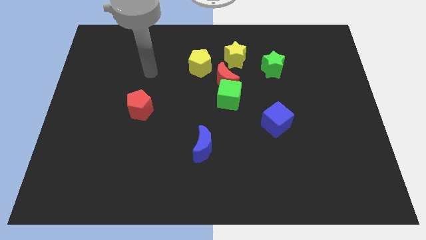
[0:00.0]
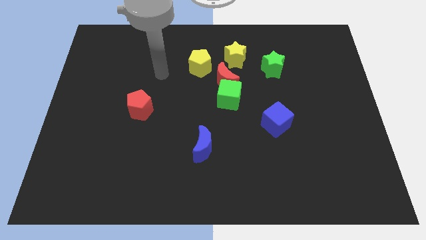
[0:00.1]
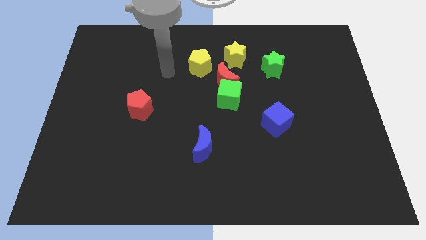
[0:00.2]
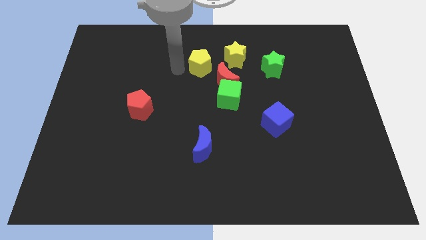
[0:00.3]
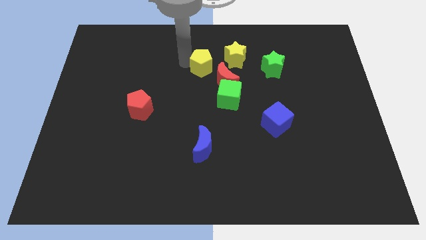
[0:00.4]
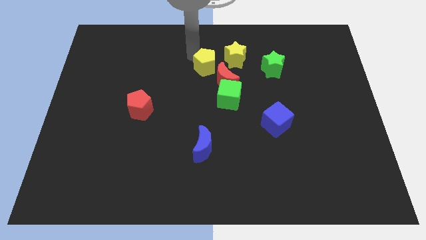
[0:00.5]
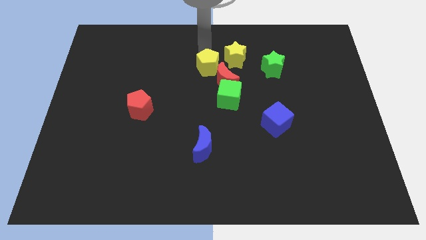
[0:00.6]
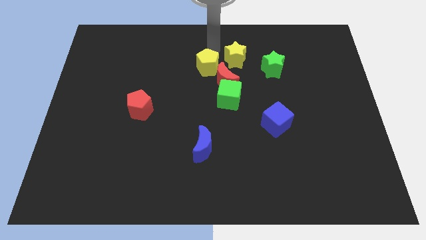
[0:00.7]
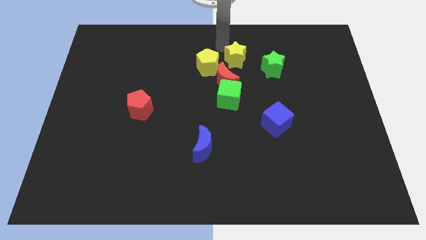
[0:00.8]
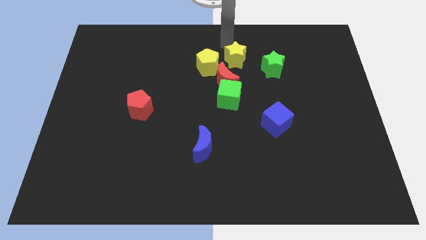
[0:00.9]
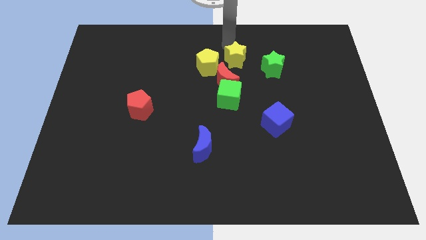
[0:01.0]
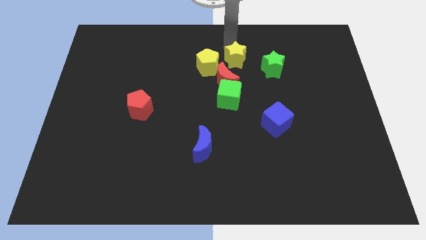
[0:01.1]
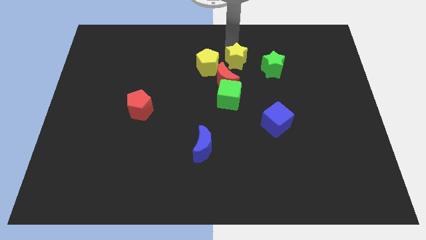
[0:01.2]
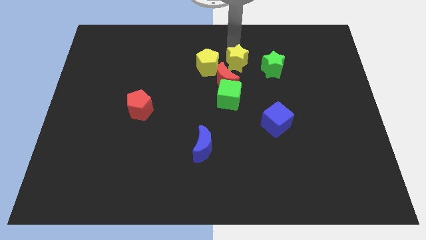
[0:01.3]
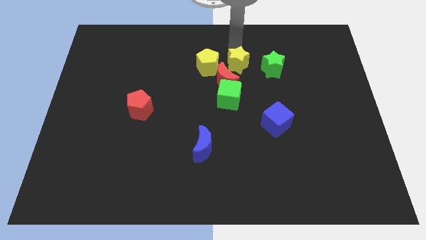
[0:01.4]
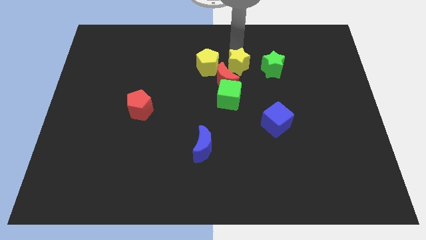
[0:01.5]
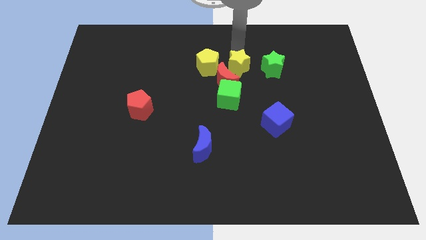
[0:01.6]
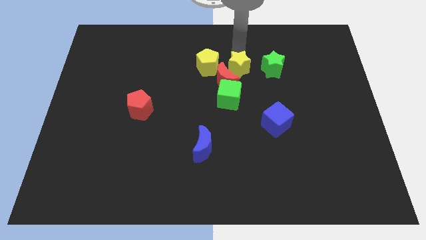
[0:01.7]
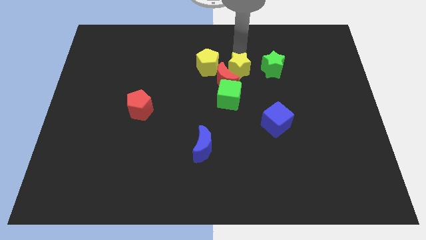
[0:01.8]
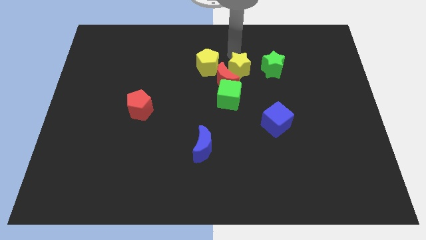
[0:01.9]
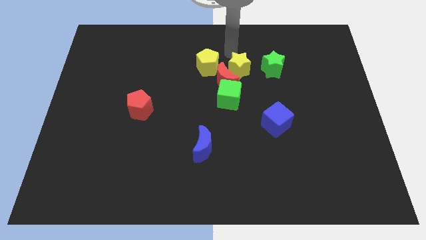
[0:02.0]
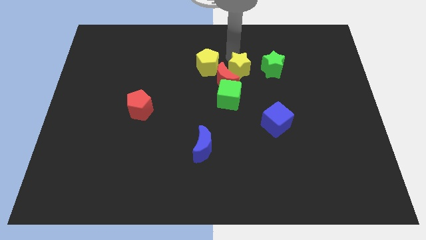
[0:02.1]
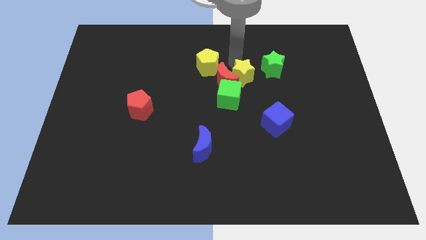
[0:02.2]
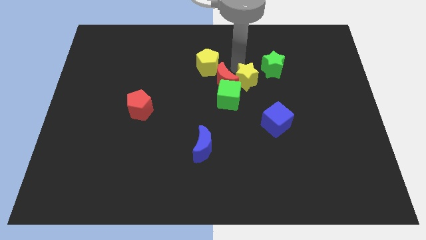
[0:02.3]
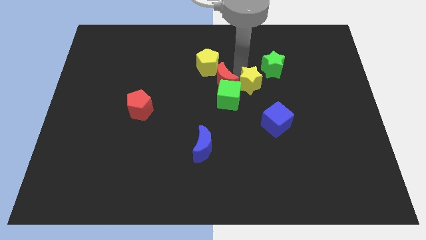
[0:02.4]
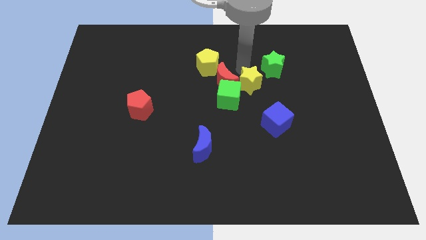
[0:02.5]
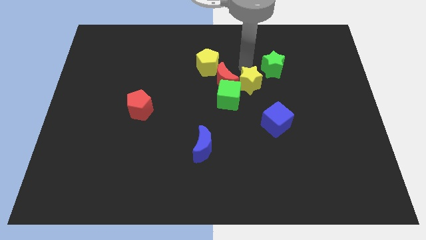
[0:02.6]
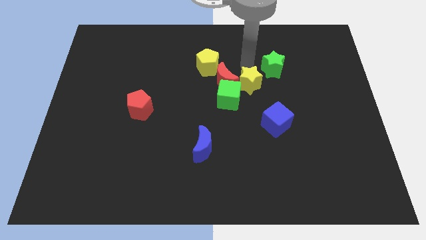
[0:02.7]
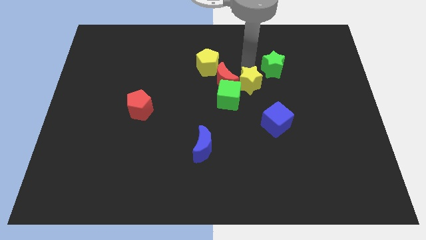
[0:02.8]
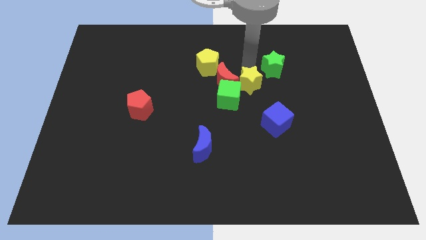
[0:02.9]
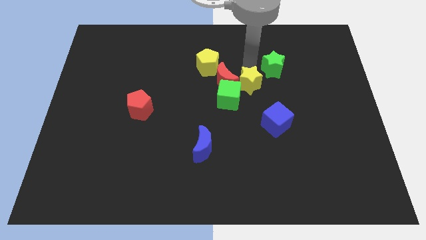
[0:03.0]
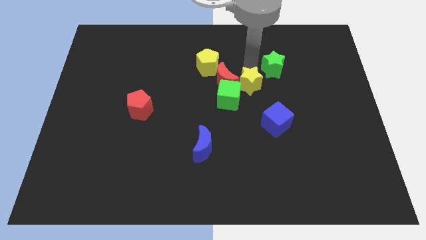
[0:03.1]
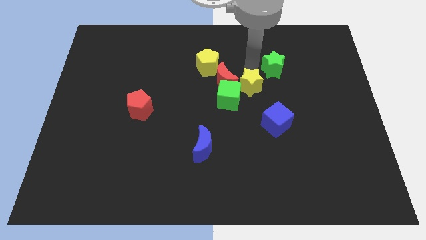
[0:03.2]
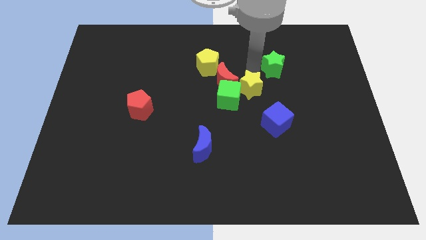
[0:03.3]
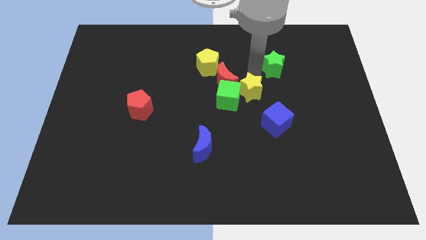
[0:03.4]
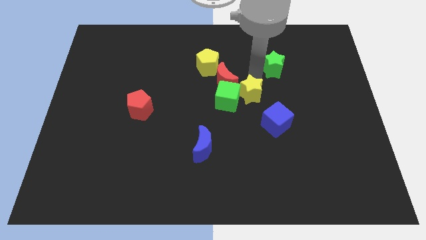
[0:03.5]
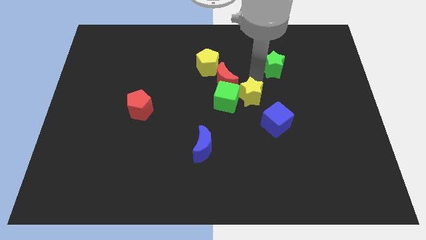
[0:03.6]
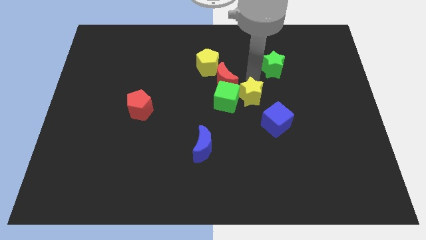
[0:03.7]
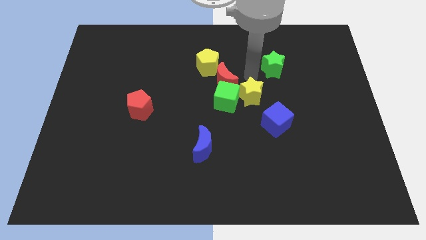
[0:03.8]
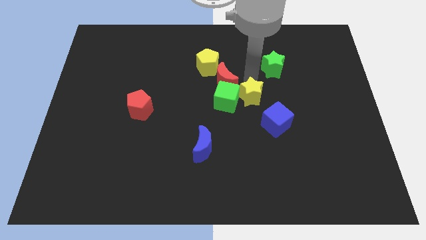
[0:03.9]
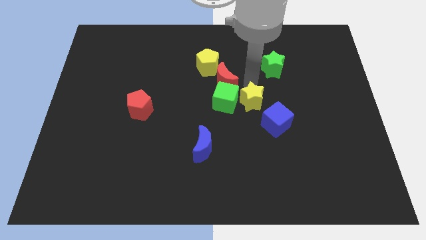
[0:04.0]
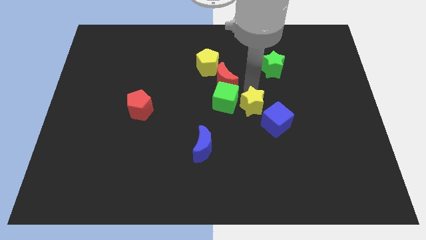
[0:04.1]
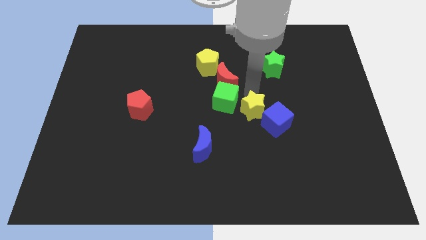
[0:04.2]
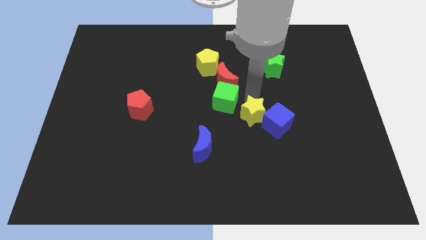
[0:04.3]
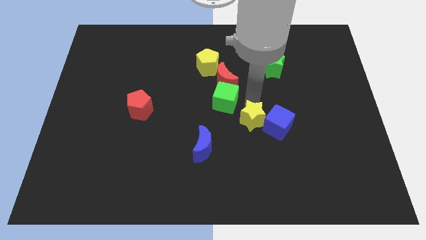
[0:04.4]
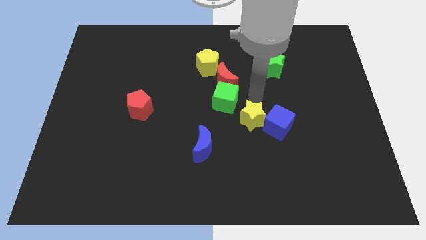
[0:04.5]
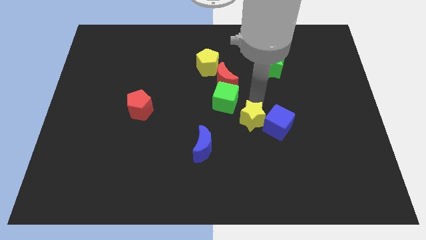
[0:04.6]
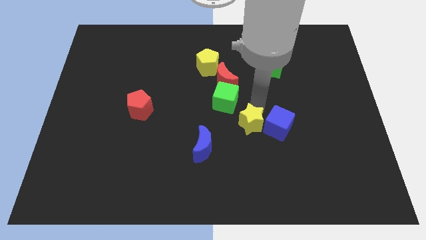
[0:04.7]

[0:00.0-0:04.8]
slide the yellow star downwards

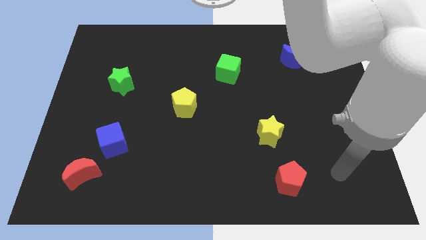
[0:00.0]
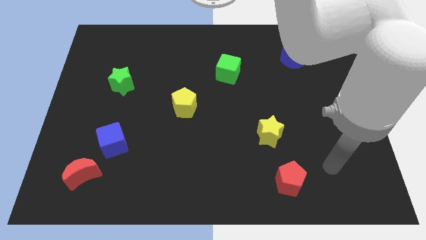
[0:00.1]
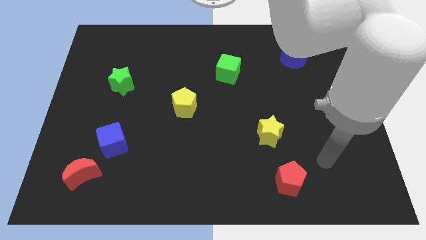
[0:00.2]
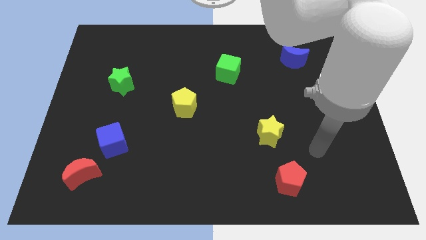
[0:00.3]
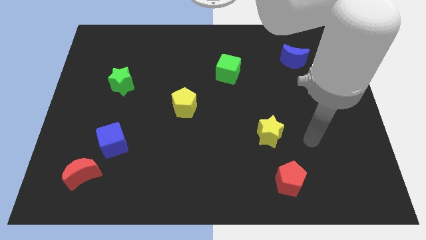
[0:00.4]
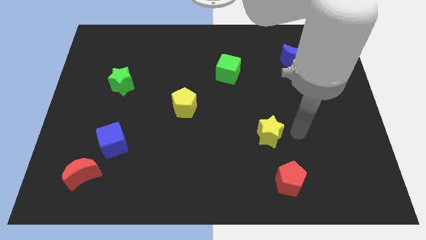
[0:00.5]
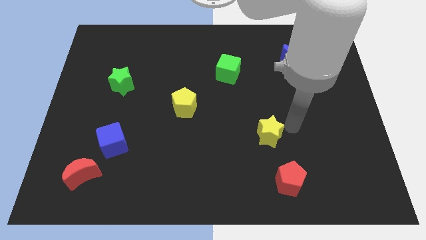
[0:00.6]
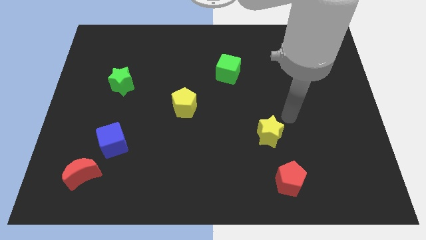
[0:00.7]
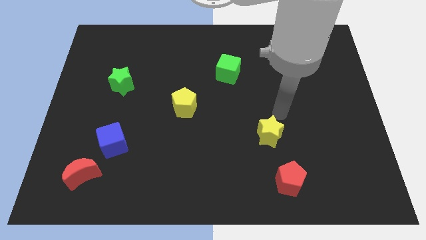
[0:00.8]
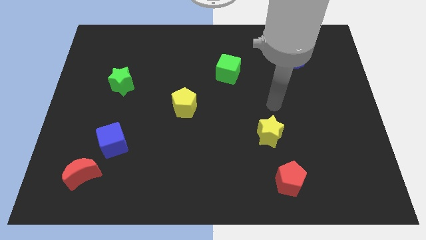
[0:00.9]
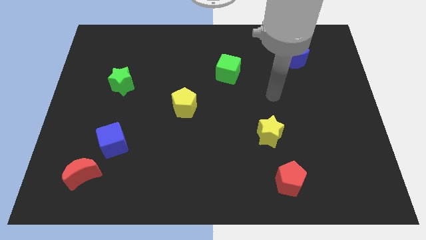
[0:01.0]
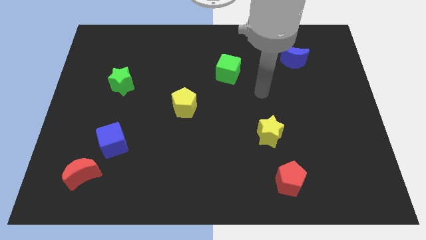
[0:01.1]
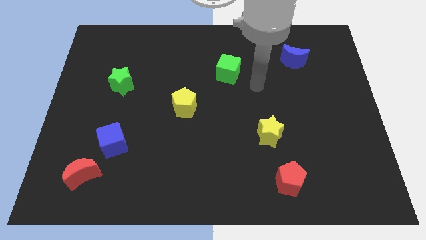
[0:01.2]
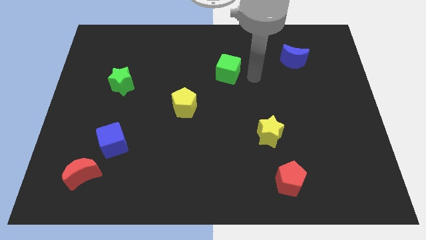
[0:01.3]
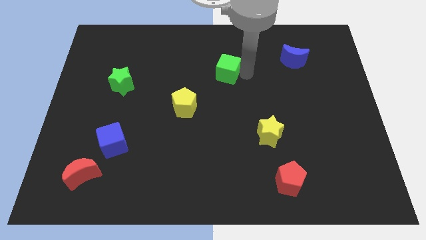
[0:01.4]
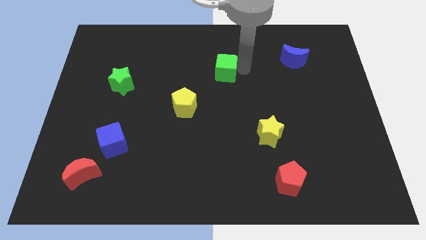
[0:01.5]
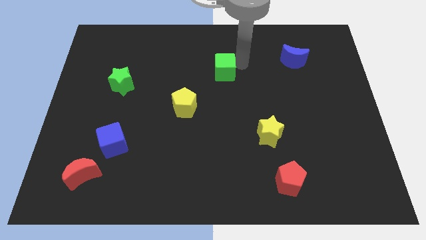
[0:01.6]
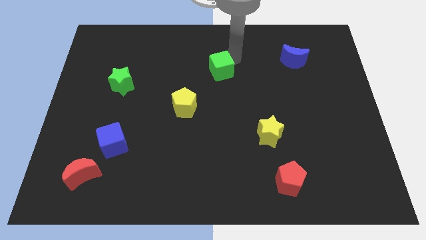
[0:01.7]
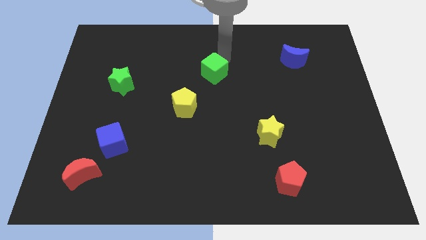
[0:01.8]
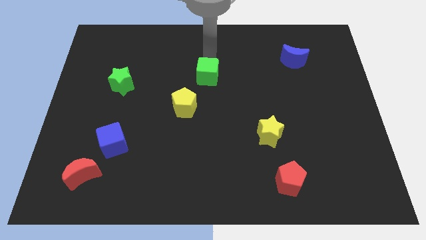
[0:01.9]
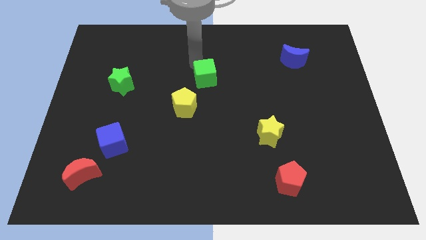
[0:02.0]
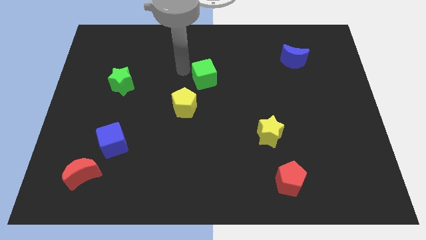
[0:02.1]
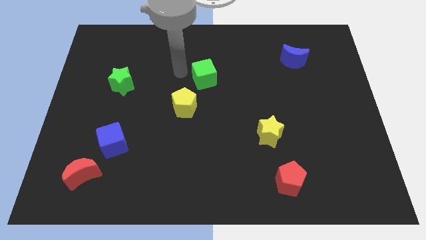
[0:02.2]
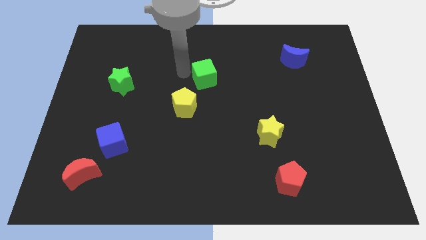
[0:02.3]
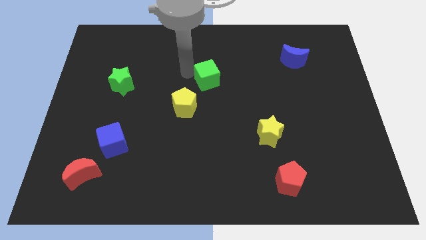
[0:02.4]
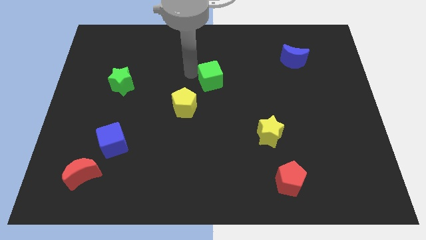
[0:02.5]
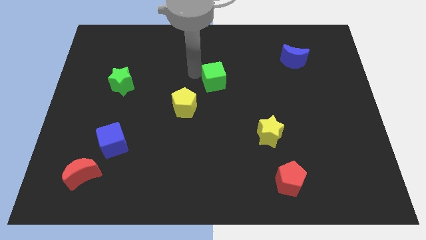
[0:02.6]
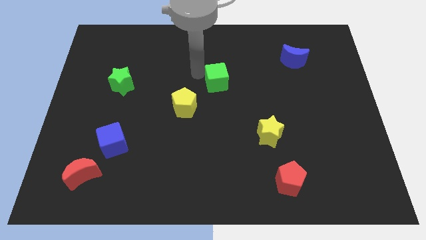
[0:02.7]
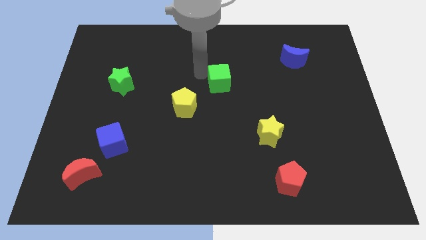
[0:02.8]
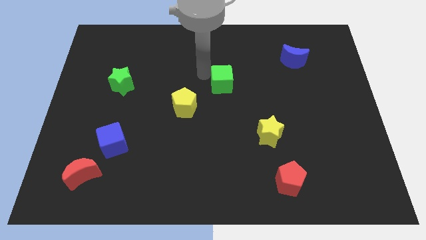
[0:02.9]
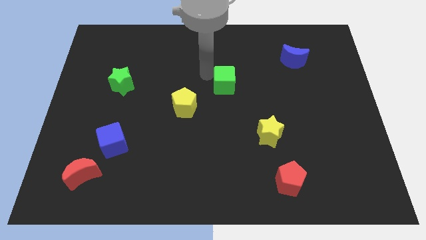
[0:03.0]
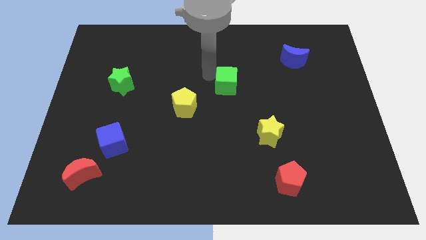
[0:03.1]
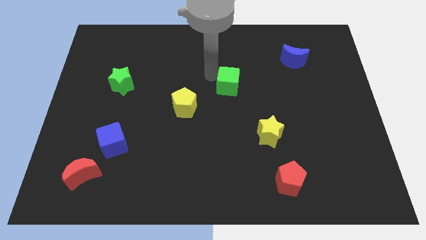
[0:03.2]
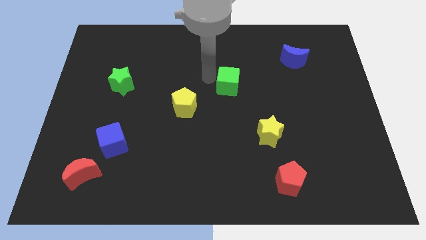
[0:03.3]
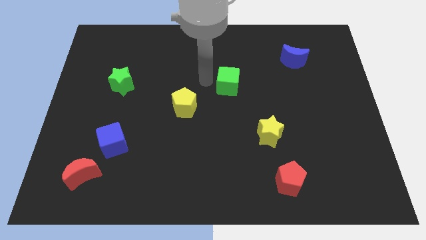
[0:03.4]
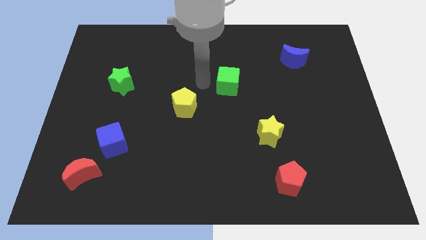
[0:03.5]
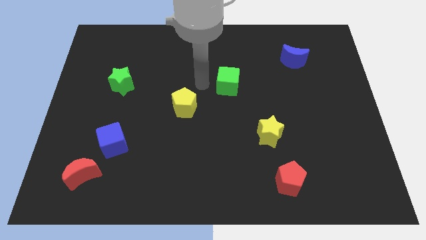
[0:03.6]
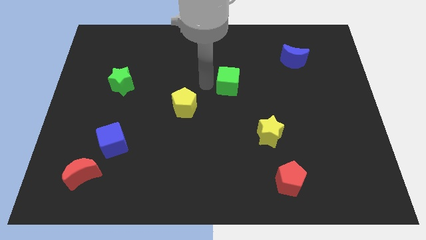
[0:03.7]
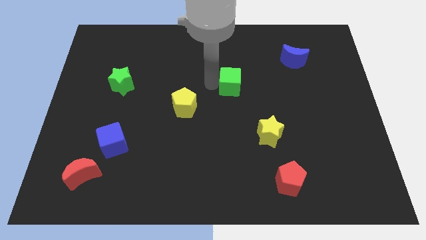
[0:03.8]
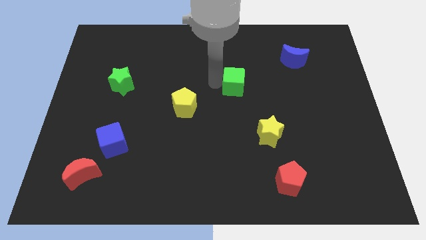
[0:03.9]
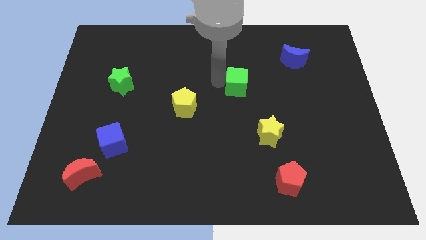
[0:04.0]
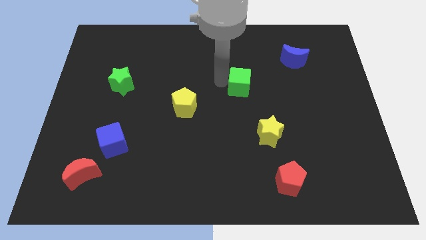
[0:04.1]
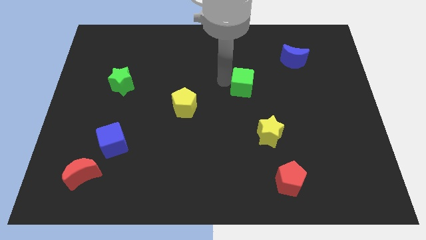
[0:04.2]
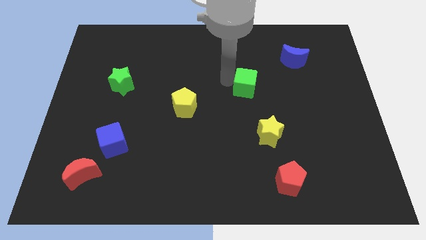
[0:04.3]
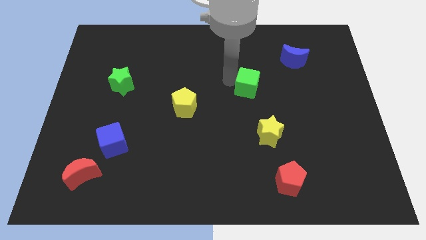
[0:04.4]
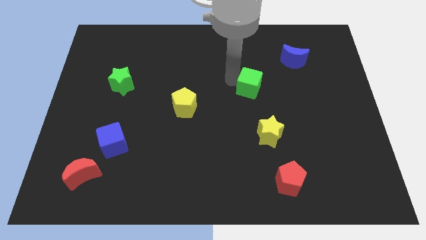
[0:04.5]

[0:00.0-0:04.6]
slightly slide the green cube downwards and to the right
